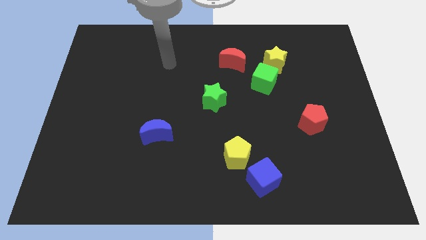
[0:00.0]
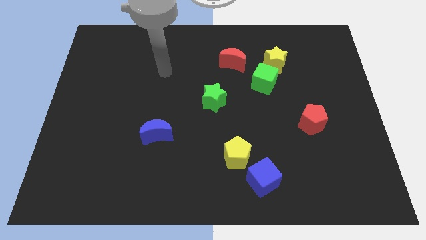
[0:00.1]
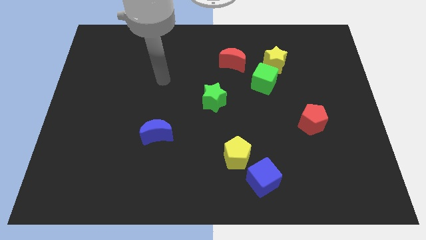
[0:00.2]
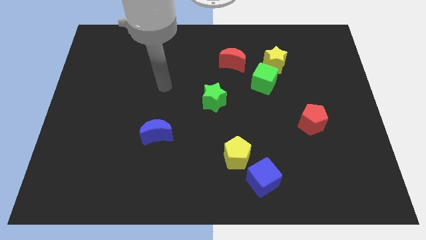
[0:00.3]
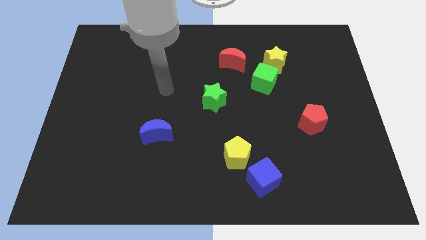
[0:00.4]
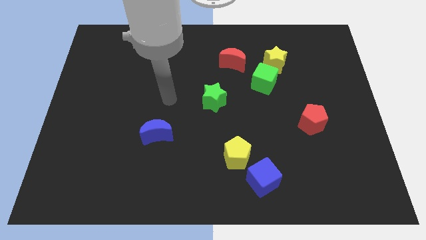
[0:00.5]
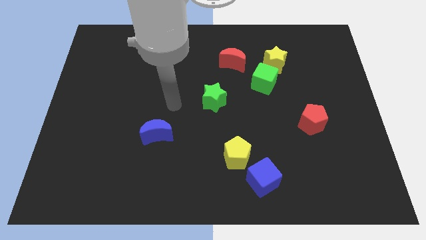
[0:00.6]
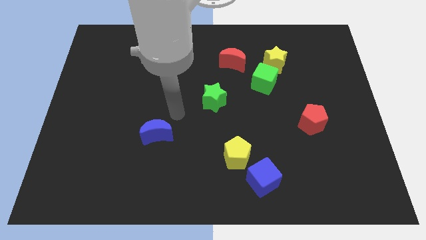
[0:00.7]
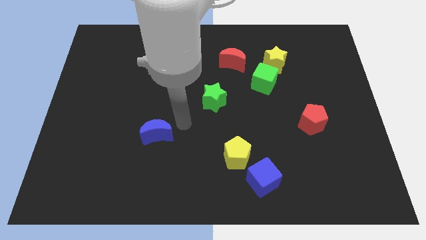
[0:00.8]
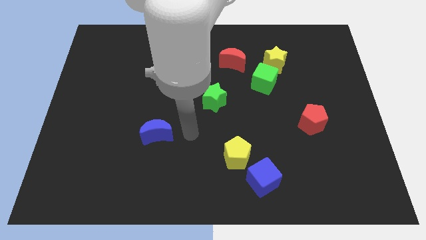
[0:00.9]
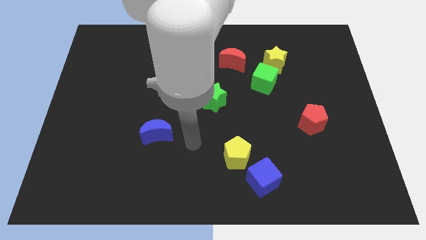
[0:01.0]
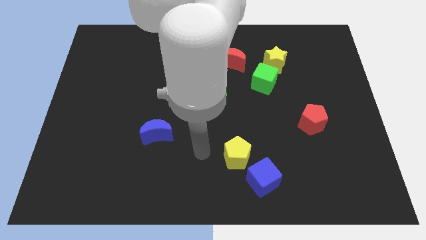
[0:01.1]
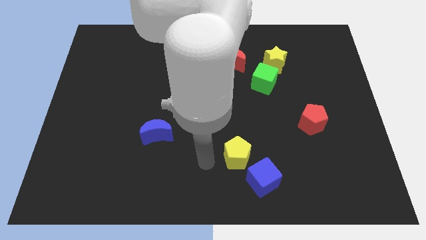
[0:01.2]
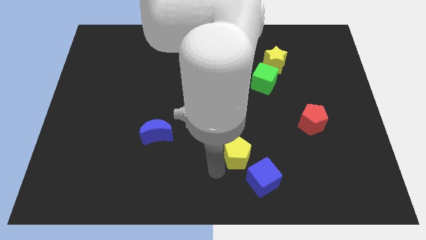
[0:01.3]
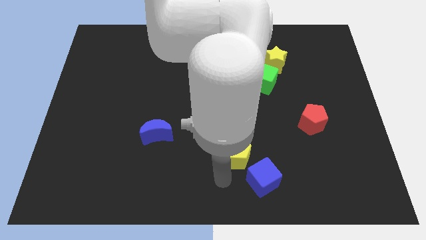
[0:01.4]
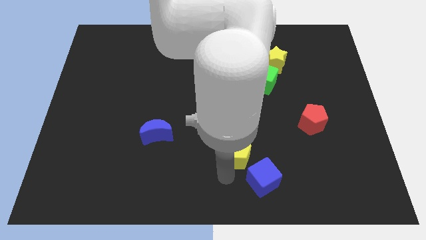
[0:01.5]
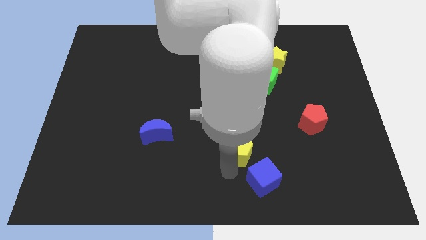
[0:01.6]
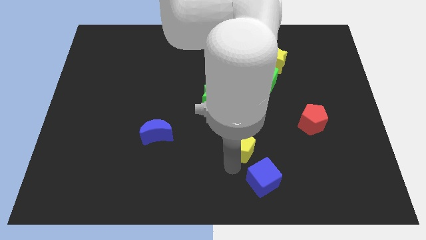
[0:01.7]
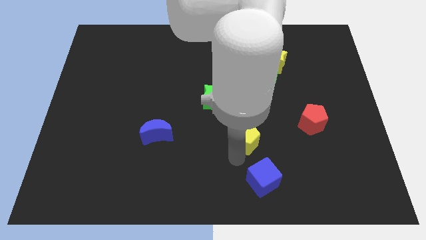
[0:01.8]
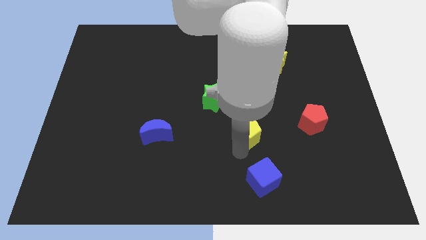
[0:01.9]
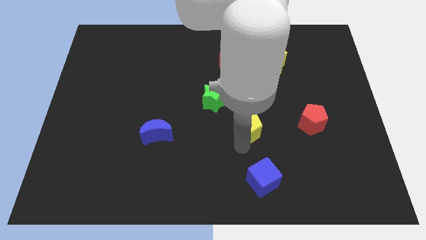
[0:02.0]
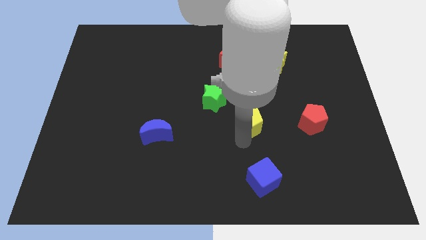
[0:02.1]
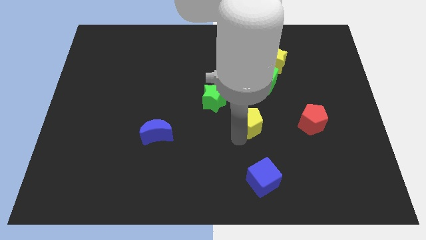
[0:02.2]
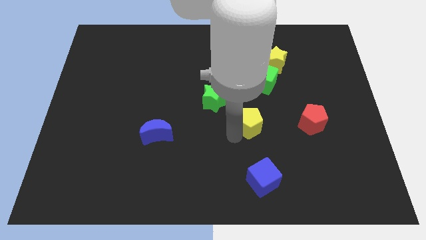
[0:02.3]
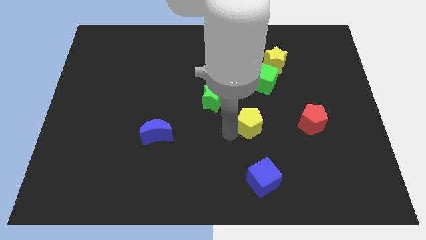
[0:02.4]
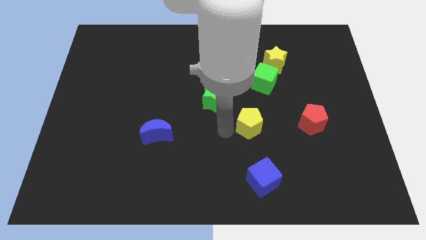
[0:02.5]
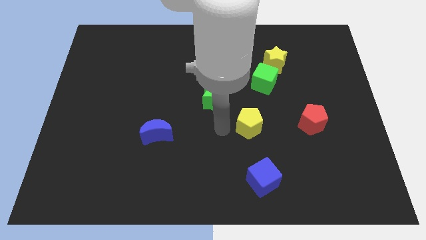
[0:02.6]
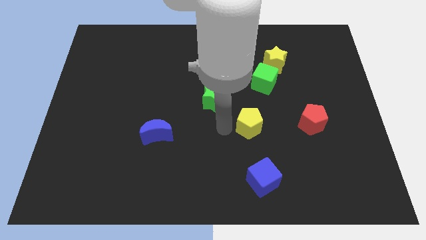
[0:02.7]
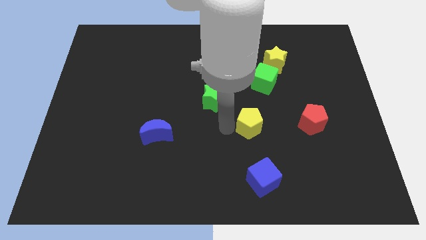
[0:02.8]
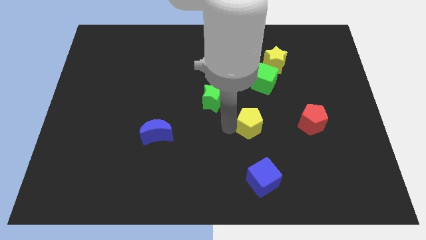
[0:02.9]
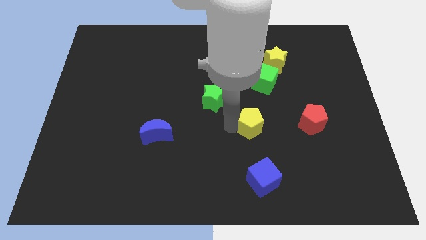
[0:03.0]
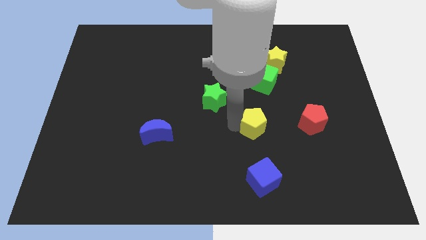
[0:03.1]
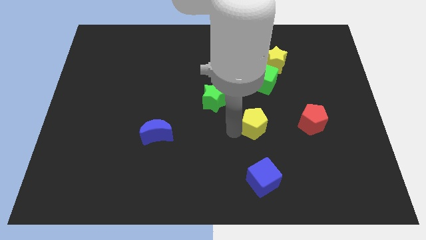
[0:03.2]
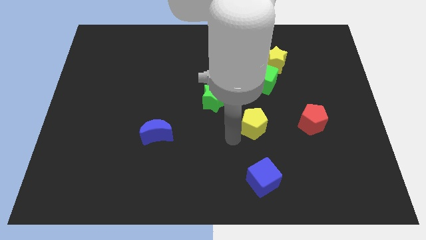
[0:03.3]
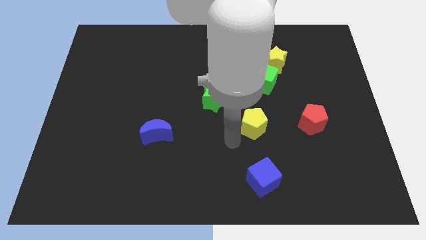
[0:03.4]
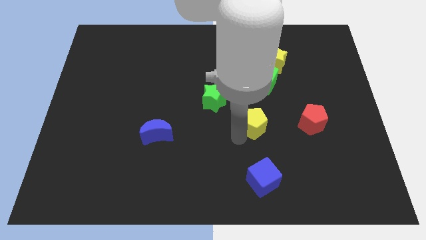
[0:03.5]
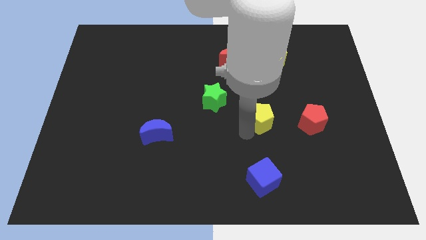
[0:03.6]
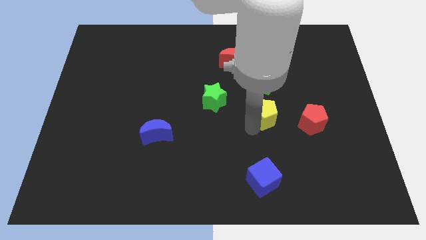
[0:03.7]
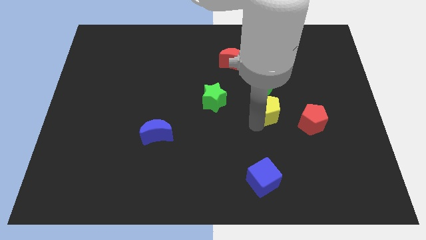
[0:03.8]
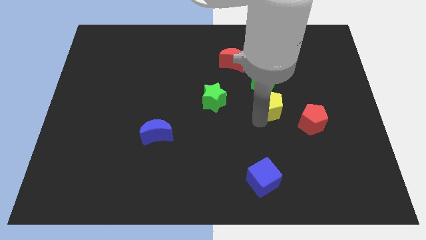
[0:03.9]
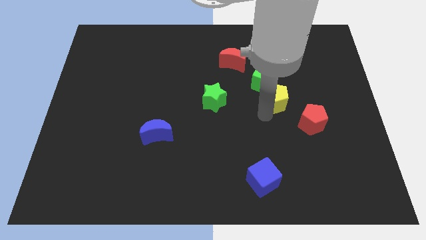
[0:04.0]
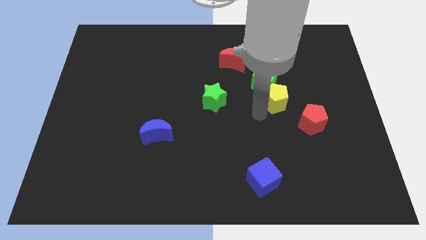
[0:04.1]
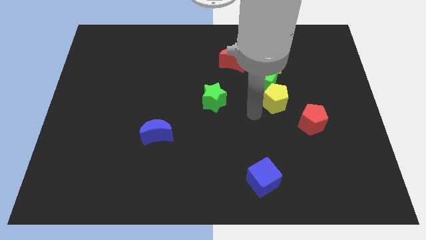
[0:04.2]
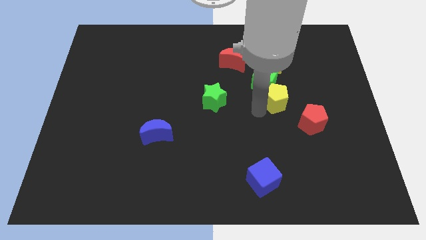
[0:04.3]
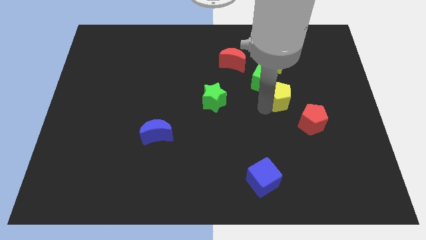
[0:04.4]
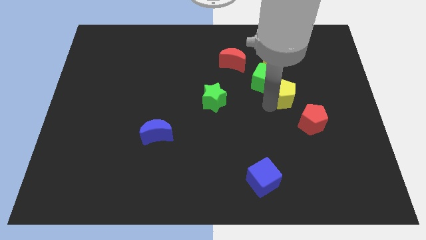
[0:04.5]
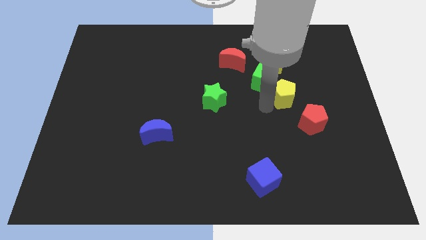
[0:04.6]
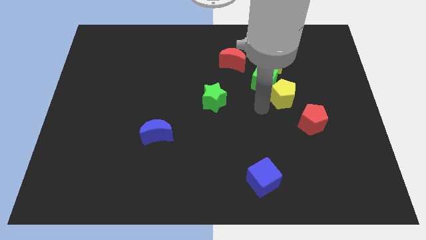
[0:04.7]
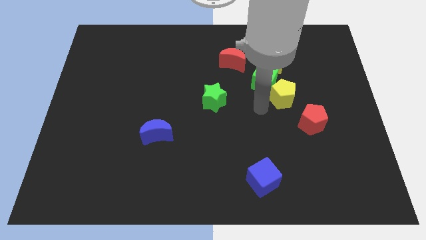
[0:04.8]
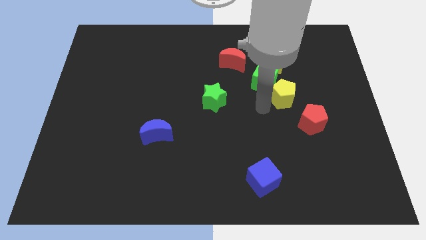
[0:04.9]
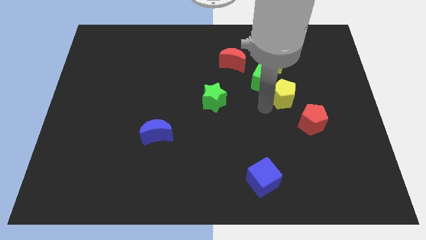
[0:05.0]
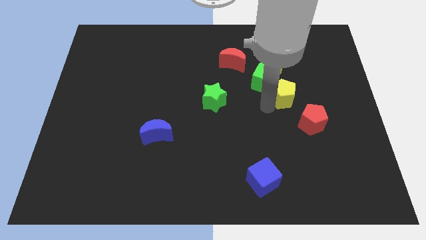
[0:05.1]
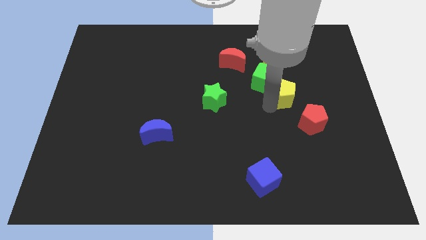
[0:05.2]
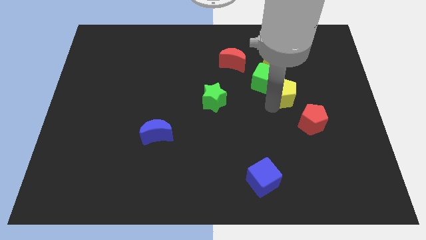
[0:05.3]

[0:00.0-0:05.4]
push the yellow pentagon up and to the right

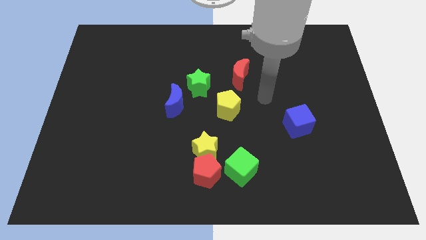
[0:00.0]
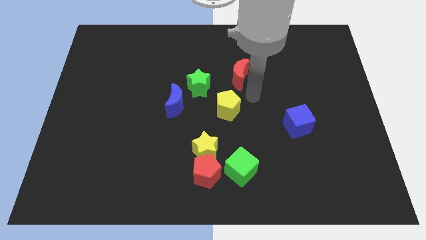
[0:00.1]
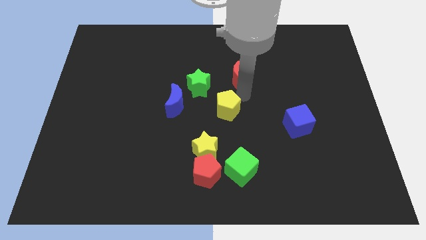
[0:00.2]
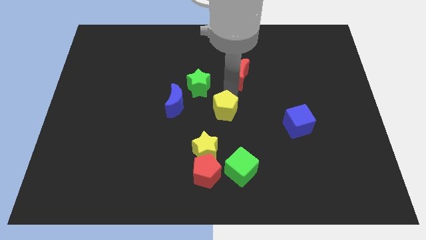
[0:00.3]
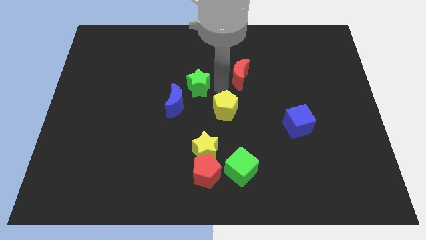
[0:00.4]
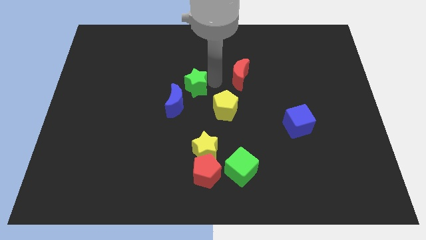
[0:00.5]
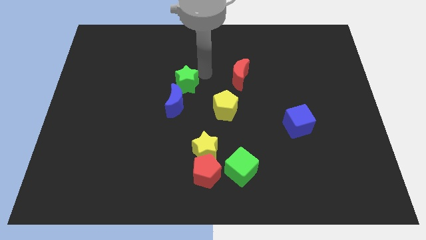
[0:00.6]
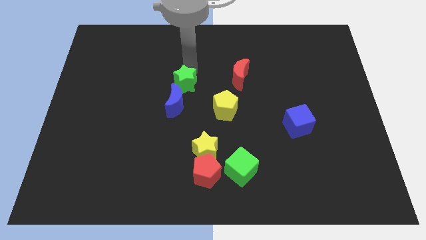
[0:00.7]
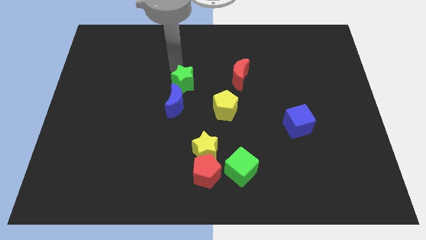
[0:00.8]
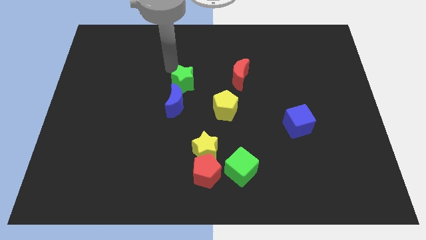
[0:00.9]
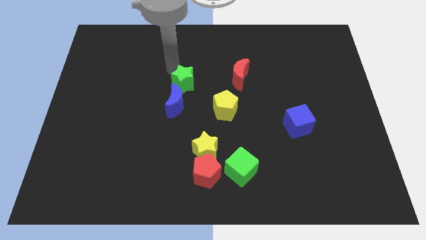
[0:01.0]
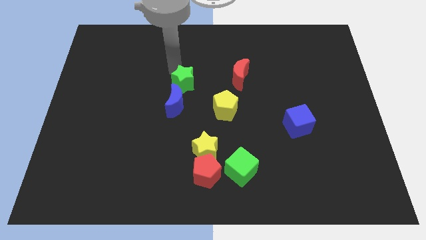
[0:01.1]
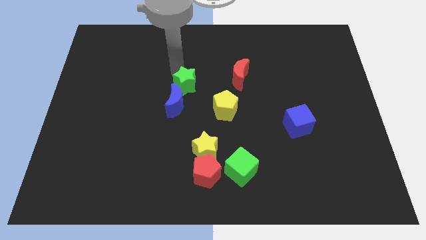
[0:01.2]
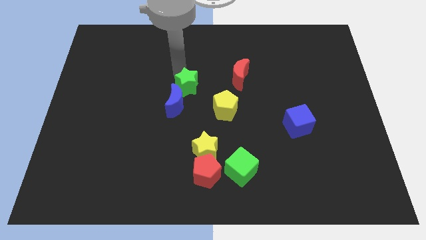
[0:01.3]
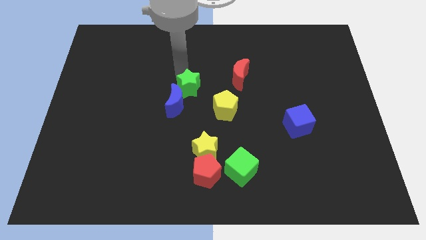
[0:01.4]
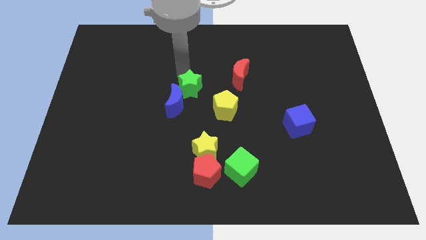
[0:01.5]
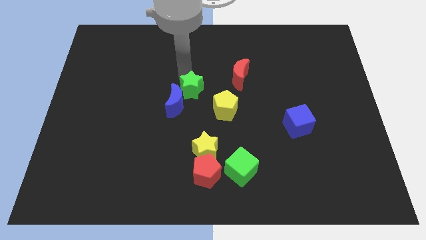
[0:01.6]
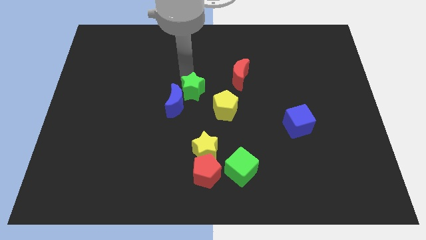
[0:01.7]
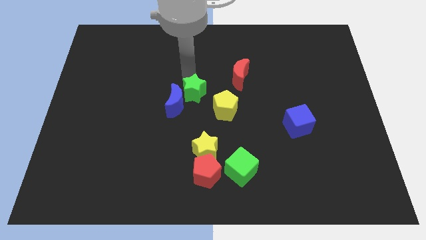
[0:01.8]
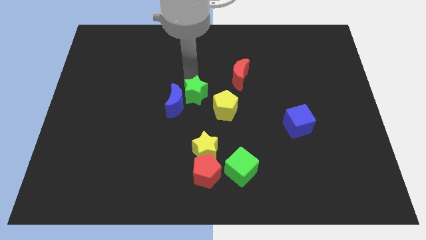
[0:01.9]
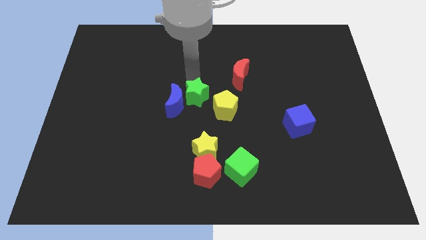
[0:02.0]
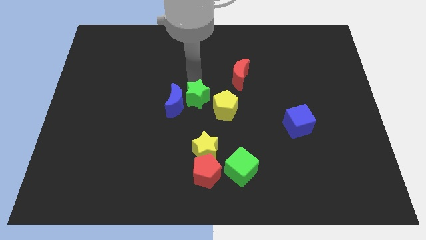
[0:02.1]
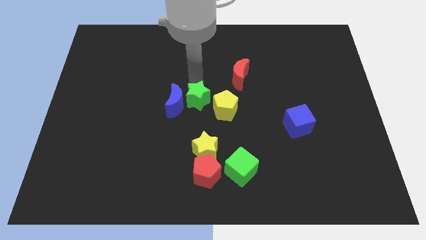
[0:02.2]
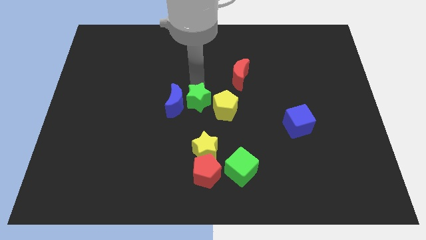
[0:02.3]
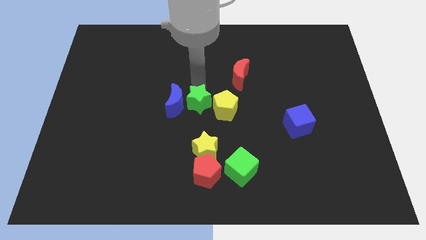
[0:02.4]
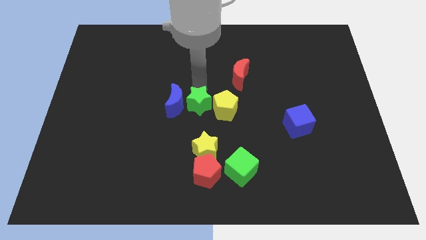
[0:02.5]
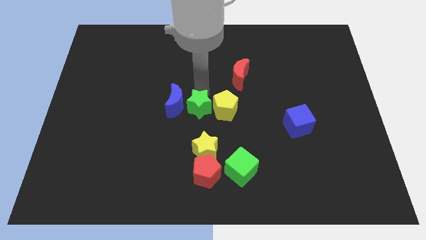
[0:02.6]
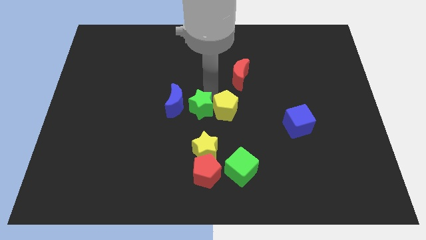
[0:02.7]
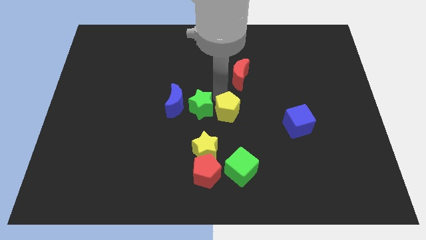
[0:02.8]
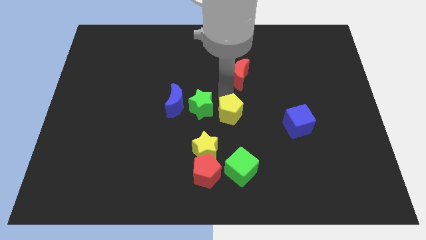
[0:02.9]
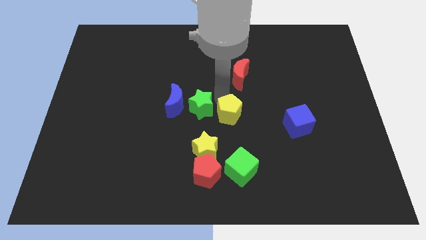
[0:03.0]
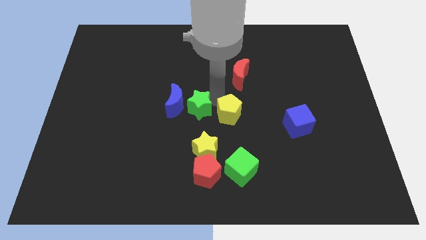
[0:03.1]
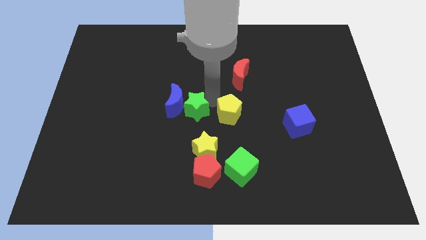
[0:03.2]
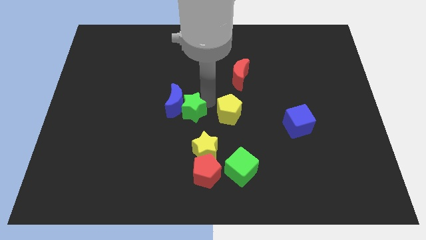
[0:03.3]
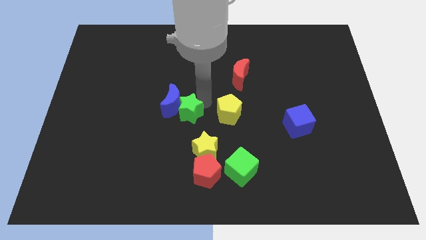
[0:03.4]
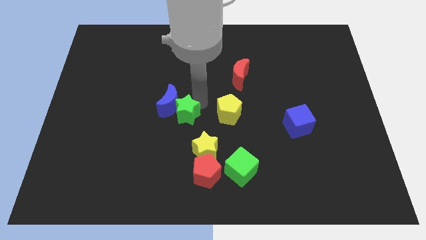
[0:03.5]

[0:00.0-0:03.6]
push the green star down and left diagonally a little bit
